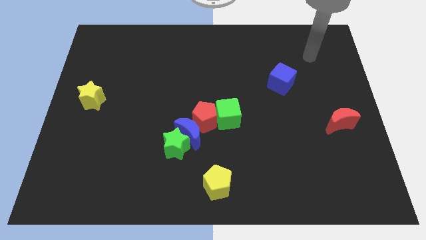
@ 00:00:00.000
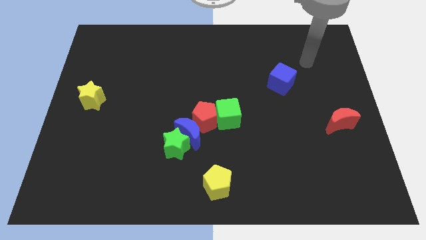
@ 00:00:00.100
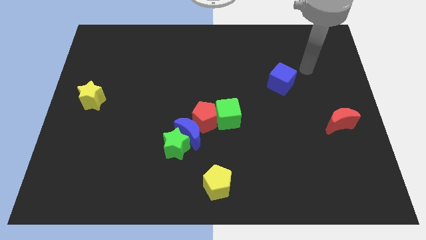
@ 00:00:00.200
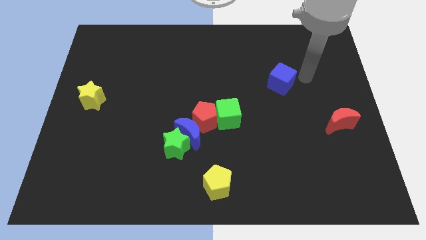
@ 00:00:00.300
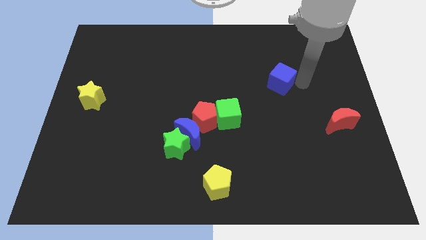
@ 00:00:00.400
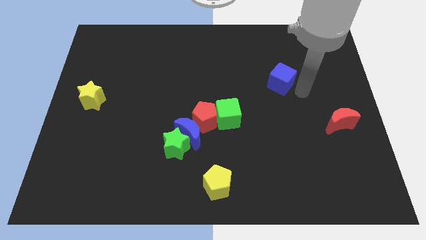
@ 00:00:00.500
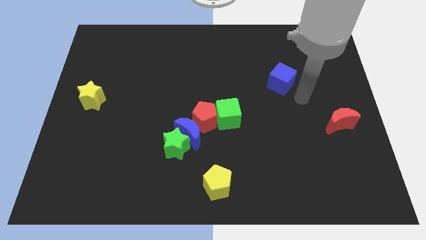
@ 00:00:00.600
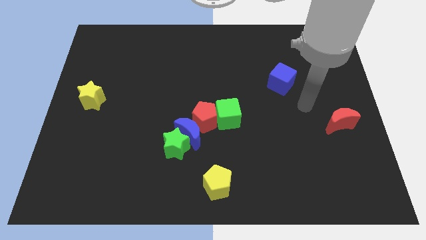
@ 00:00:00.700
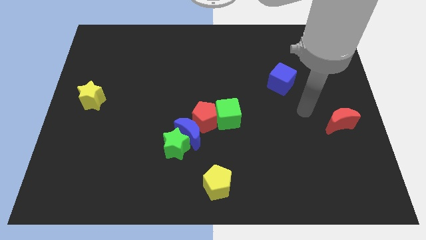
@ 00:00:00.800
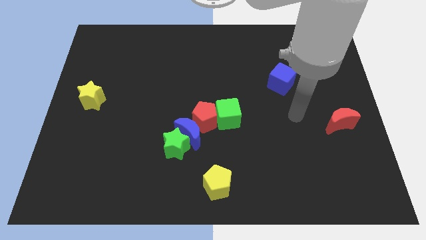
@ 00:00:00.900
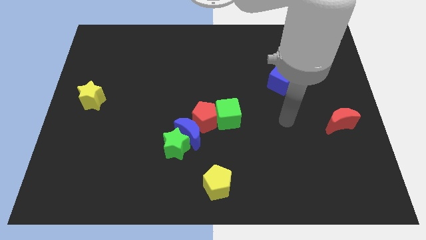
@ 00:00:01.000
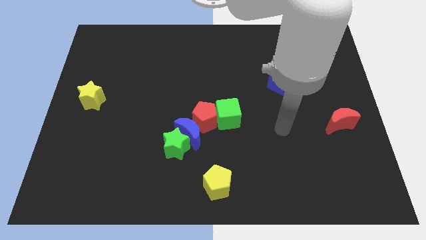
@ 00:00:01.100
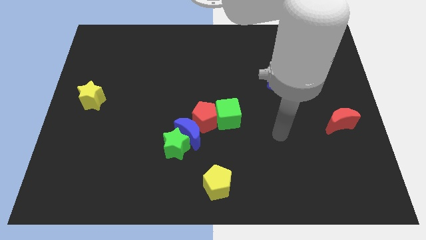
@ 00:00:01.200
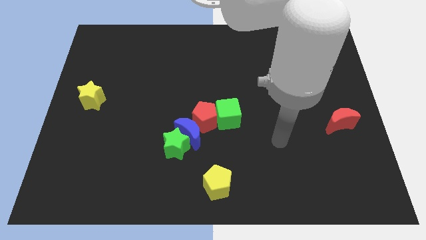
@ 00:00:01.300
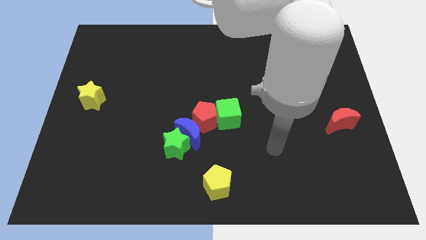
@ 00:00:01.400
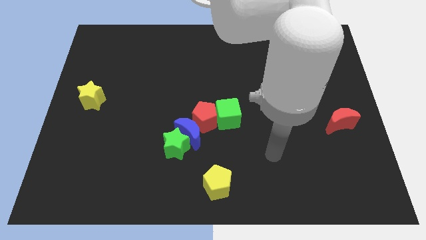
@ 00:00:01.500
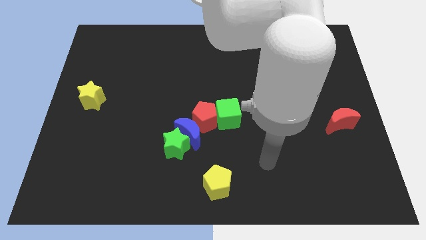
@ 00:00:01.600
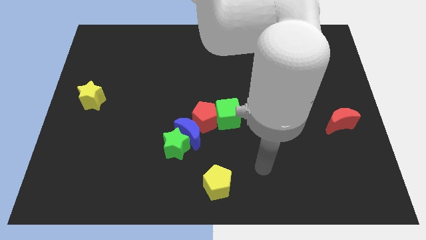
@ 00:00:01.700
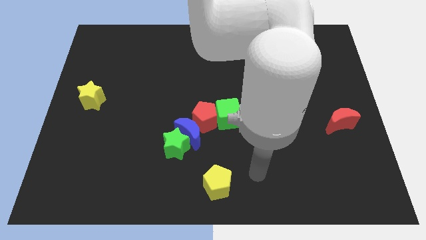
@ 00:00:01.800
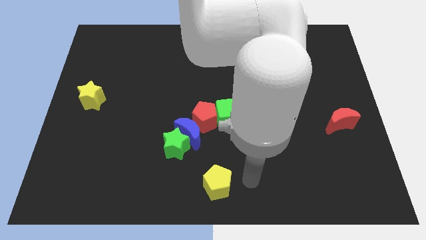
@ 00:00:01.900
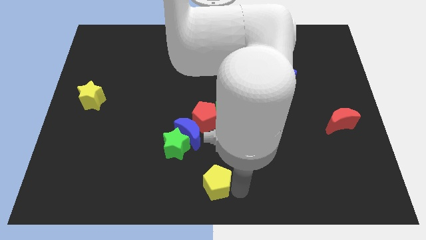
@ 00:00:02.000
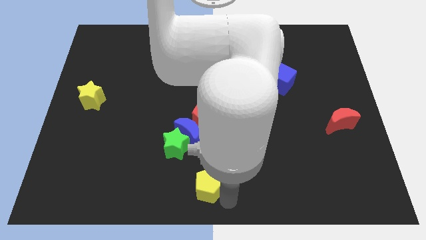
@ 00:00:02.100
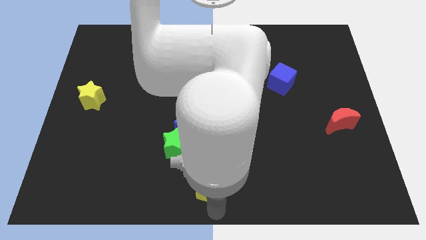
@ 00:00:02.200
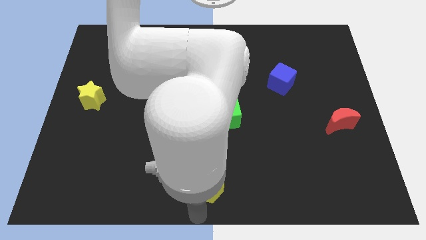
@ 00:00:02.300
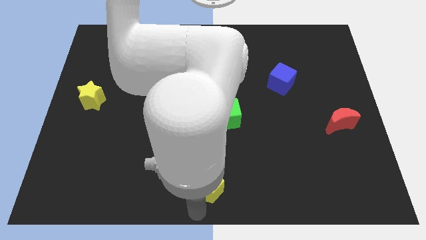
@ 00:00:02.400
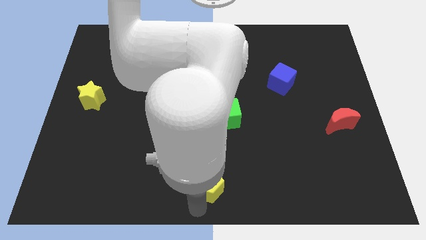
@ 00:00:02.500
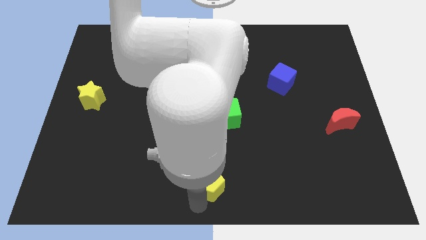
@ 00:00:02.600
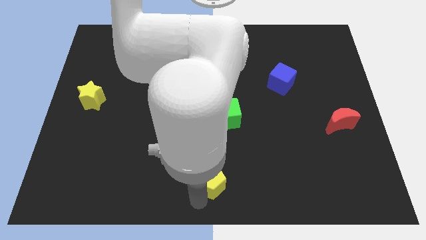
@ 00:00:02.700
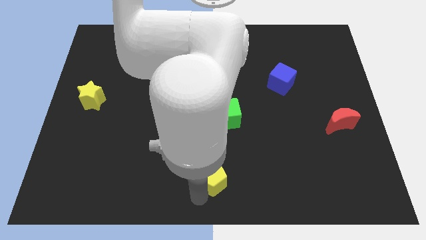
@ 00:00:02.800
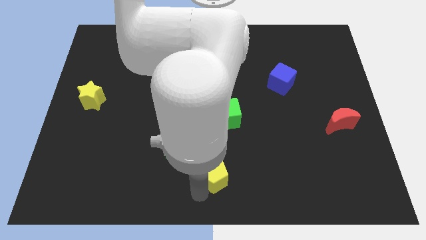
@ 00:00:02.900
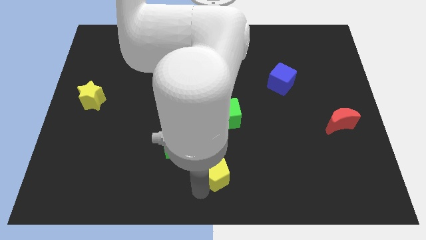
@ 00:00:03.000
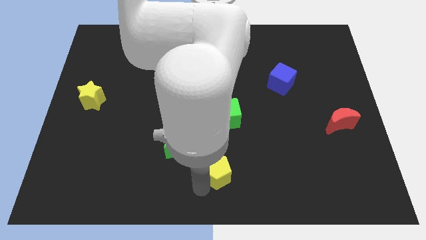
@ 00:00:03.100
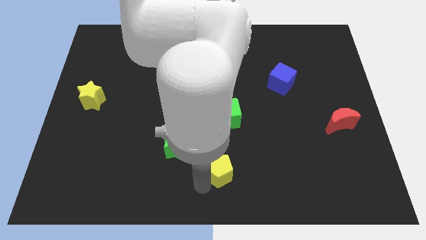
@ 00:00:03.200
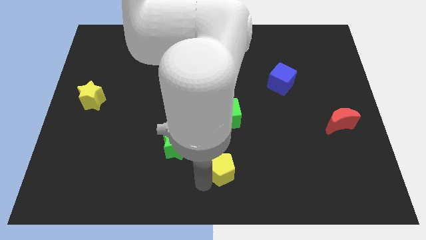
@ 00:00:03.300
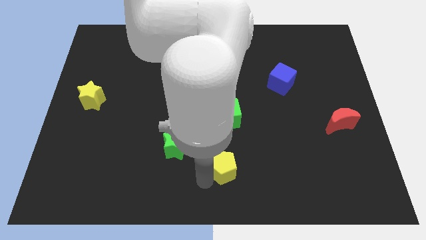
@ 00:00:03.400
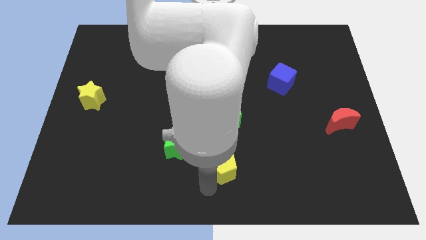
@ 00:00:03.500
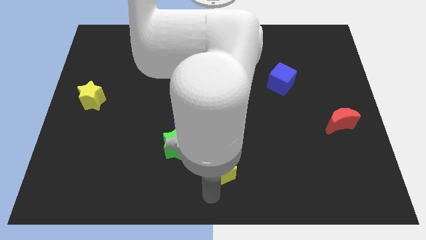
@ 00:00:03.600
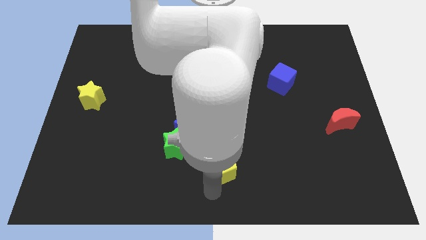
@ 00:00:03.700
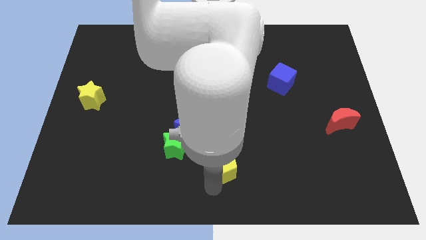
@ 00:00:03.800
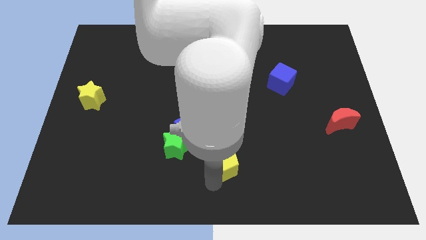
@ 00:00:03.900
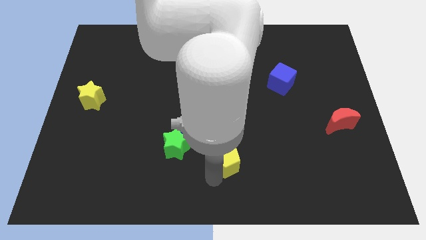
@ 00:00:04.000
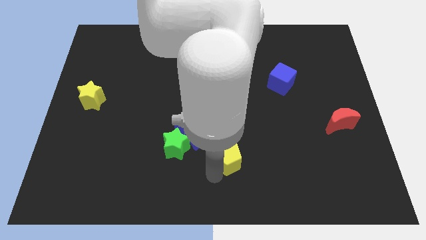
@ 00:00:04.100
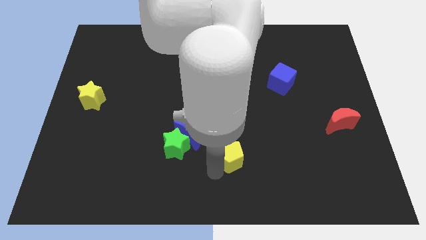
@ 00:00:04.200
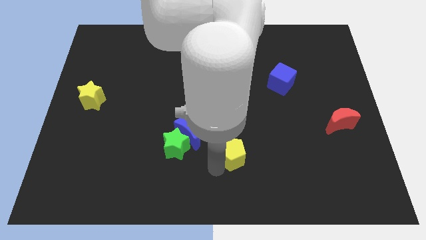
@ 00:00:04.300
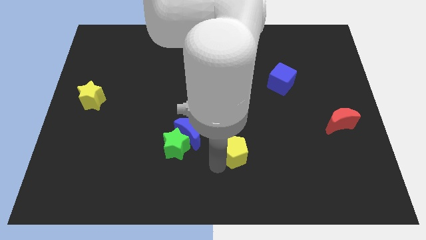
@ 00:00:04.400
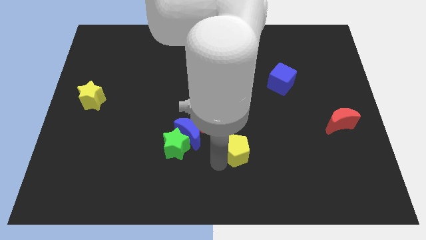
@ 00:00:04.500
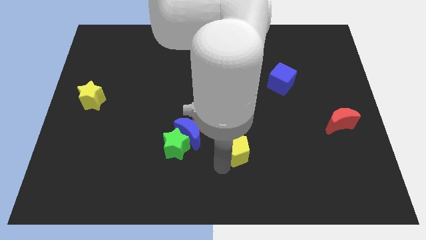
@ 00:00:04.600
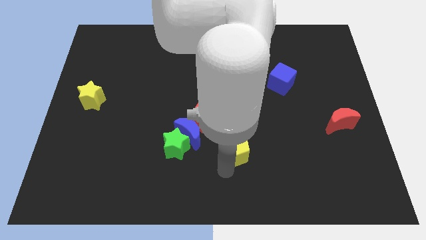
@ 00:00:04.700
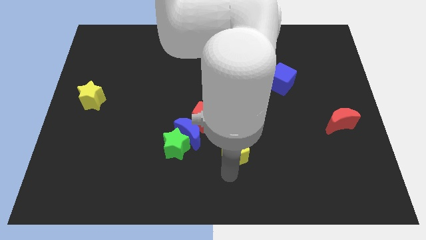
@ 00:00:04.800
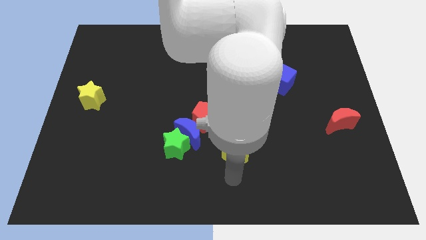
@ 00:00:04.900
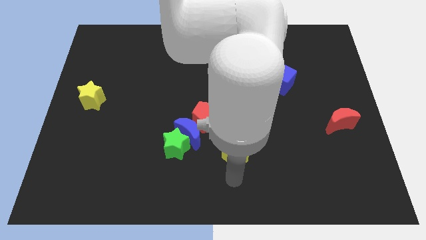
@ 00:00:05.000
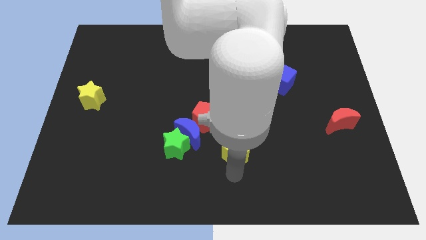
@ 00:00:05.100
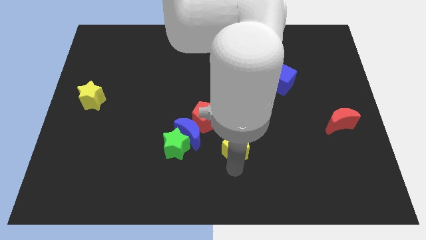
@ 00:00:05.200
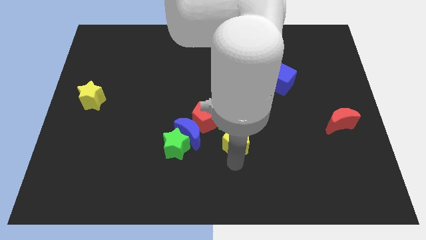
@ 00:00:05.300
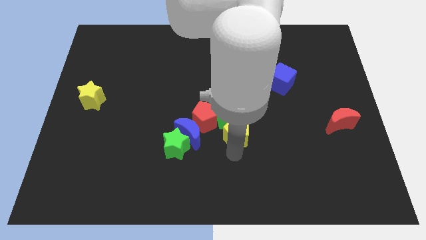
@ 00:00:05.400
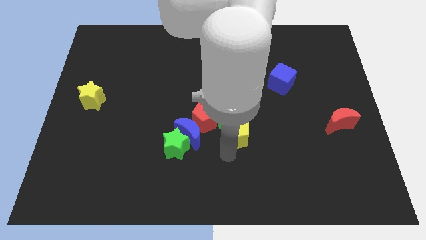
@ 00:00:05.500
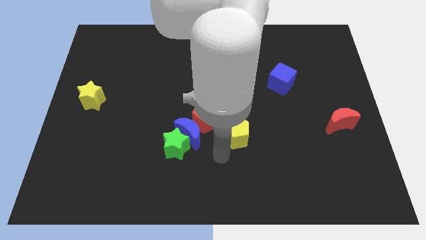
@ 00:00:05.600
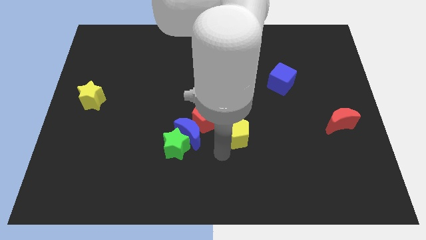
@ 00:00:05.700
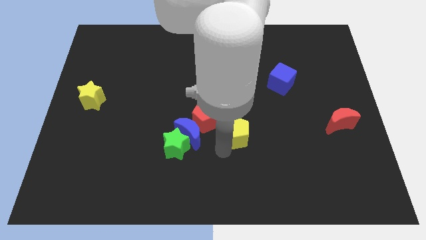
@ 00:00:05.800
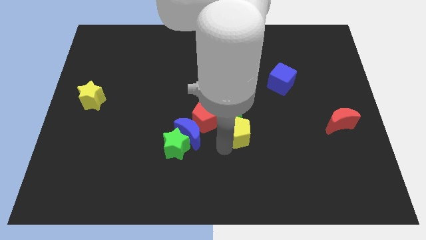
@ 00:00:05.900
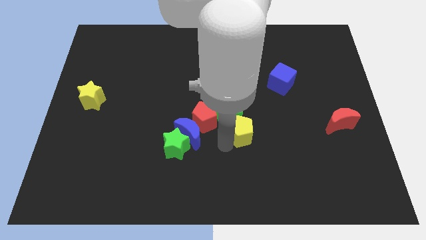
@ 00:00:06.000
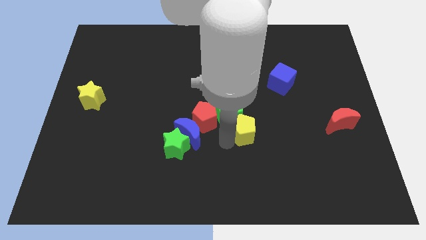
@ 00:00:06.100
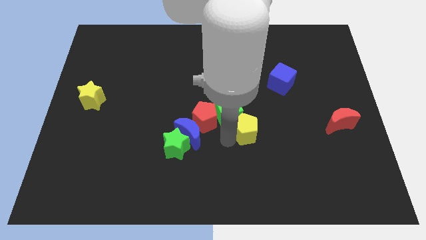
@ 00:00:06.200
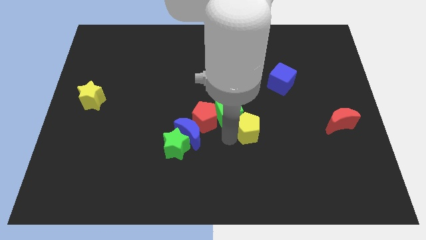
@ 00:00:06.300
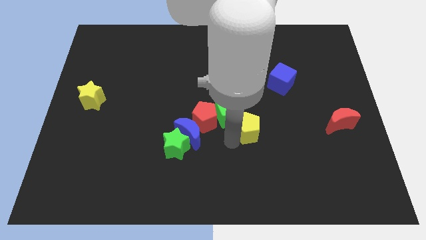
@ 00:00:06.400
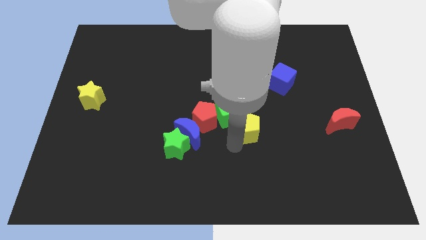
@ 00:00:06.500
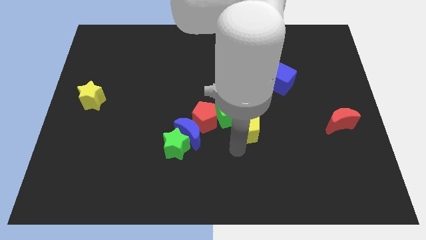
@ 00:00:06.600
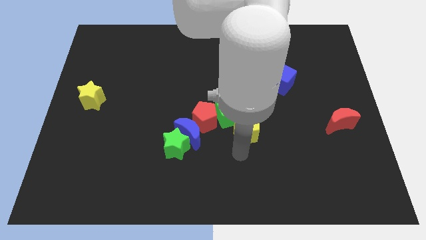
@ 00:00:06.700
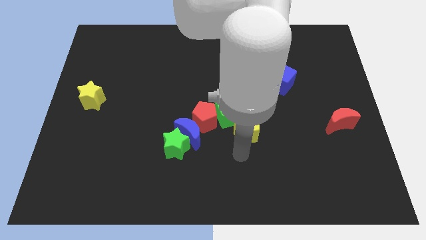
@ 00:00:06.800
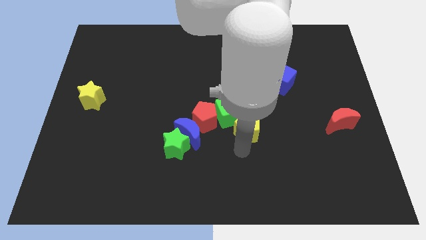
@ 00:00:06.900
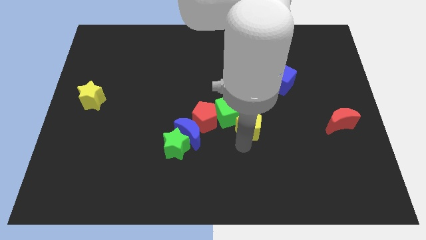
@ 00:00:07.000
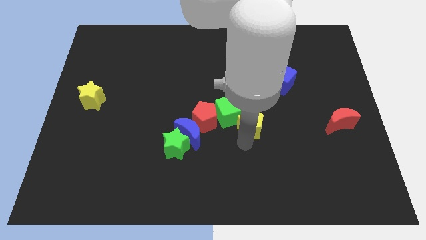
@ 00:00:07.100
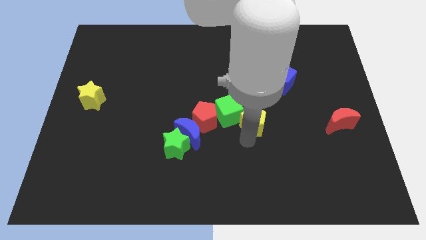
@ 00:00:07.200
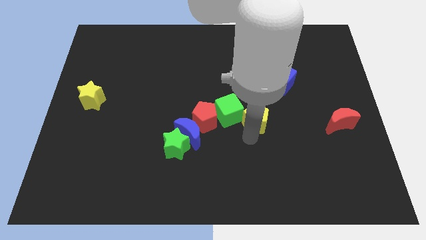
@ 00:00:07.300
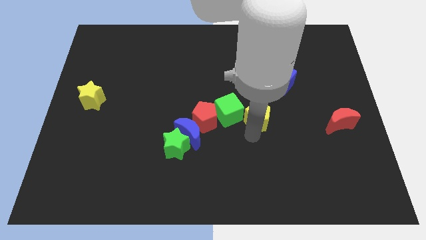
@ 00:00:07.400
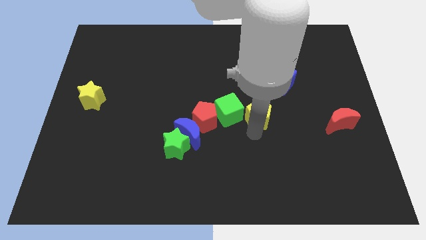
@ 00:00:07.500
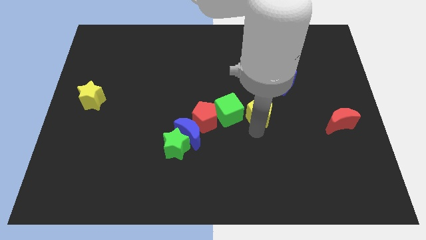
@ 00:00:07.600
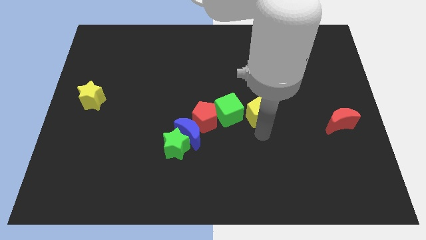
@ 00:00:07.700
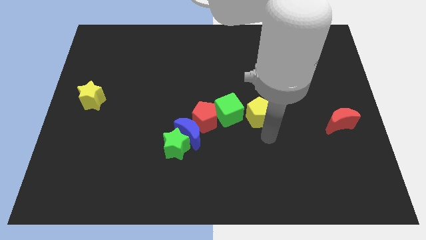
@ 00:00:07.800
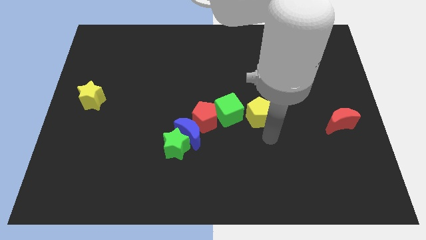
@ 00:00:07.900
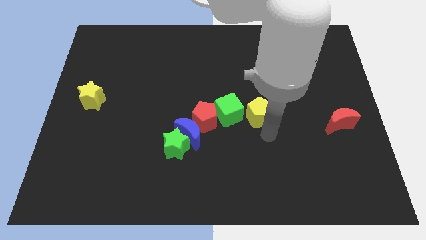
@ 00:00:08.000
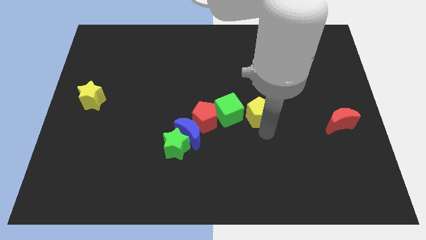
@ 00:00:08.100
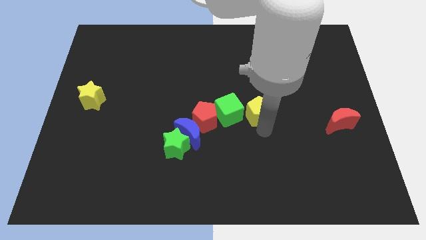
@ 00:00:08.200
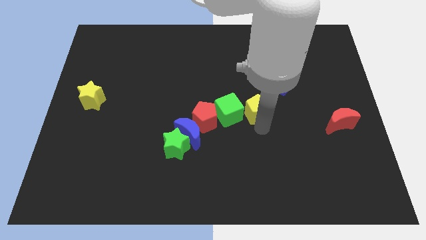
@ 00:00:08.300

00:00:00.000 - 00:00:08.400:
put the yellow pentagon to the top right of the green cube
